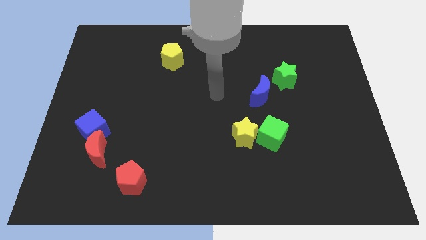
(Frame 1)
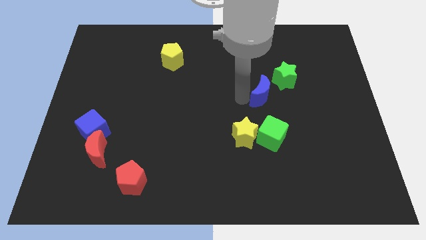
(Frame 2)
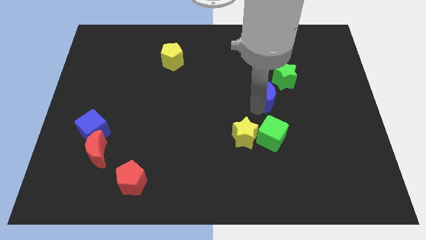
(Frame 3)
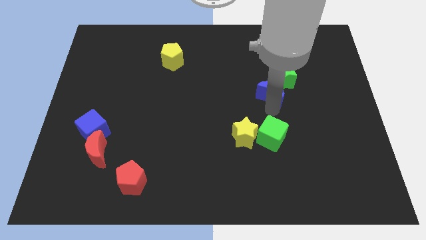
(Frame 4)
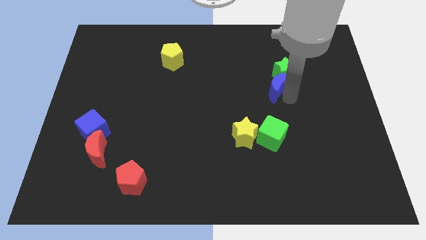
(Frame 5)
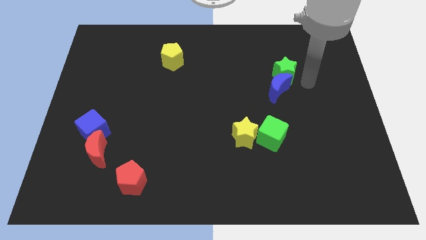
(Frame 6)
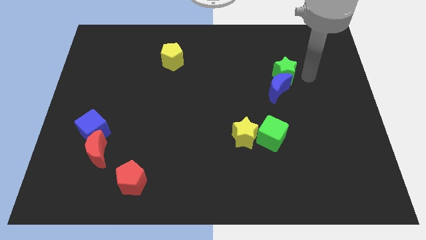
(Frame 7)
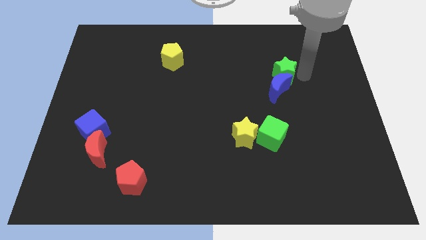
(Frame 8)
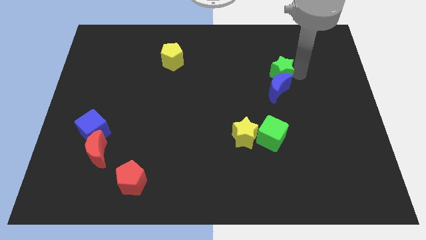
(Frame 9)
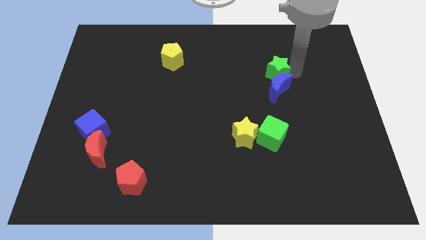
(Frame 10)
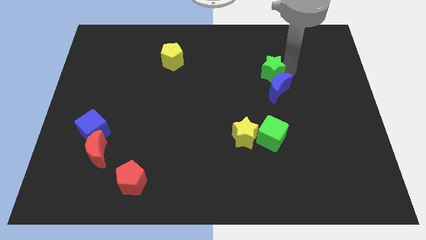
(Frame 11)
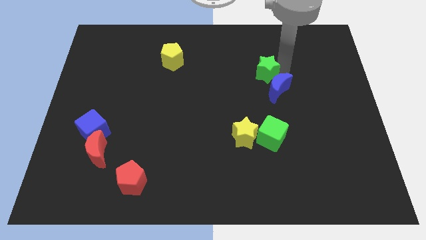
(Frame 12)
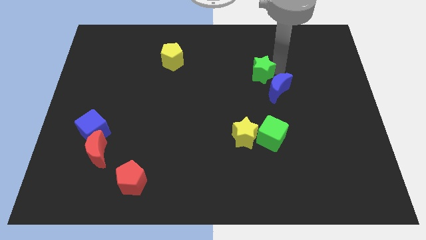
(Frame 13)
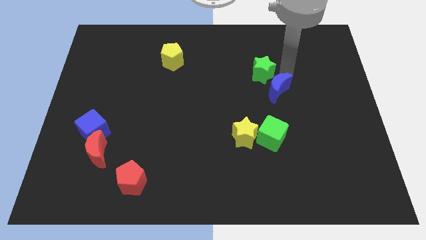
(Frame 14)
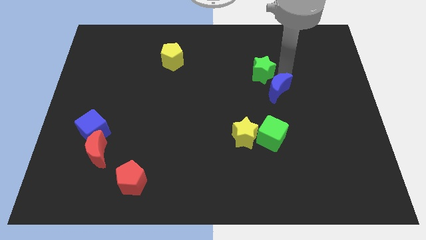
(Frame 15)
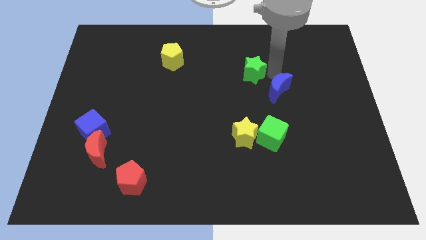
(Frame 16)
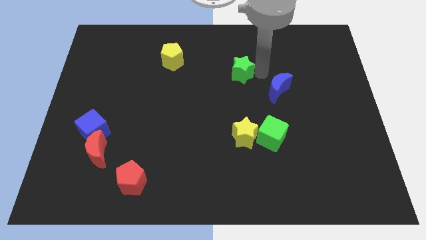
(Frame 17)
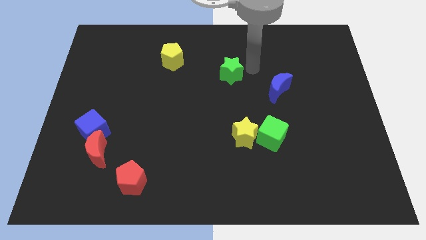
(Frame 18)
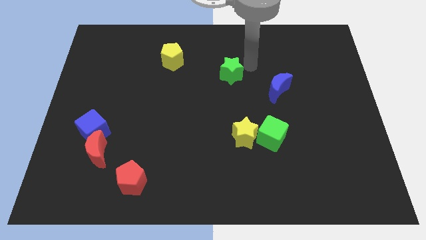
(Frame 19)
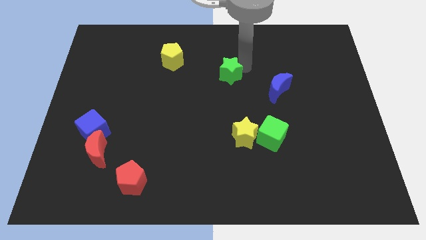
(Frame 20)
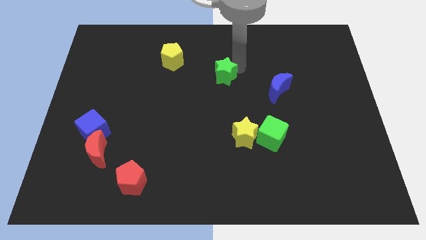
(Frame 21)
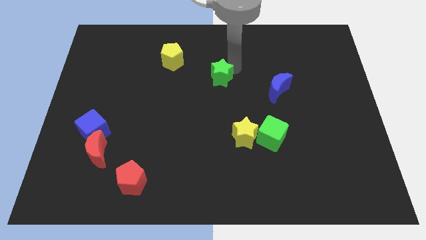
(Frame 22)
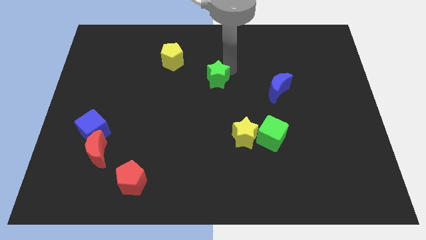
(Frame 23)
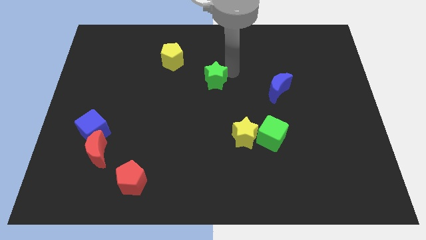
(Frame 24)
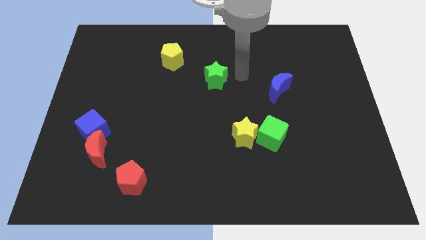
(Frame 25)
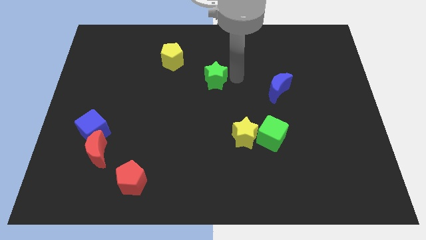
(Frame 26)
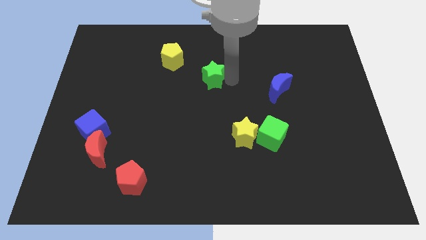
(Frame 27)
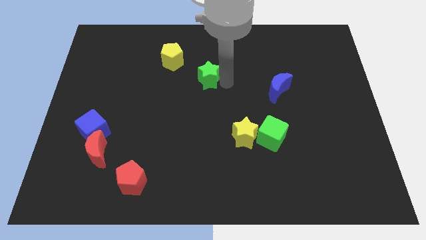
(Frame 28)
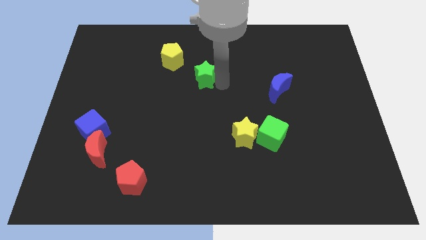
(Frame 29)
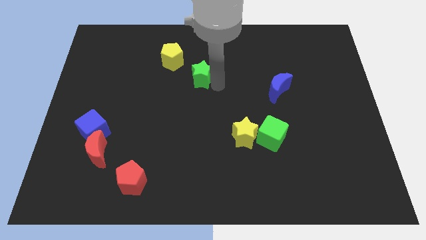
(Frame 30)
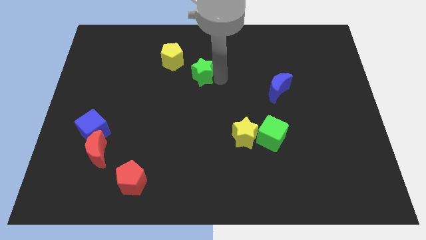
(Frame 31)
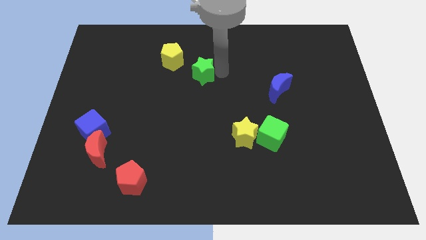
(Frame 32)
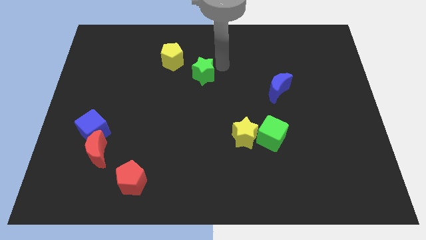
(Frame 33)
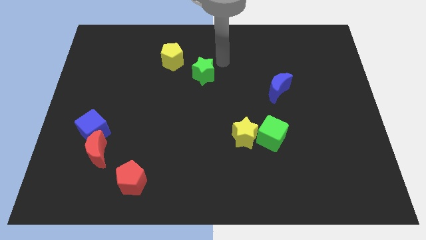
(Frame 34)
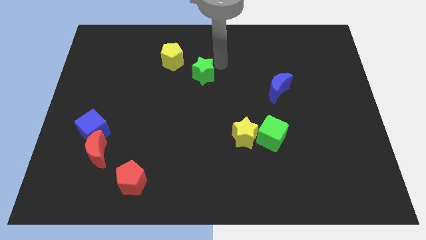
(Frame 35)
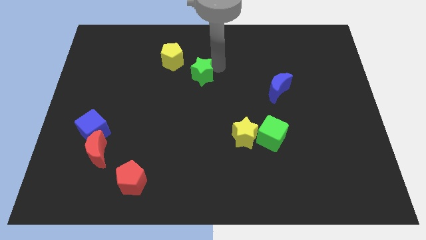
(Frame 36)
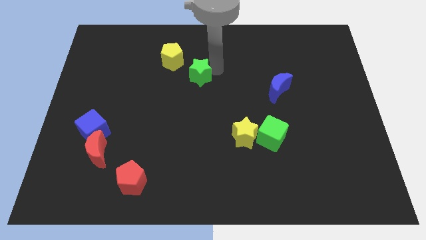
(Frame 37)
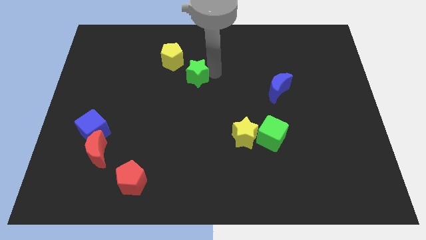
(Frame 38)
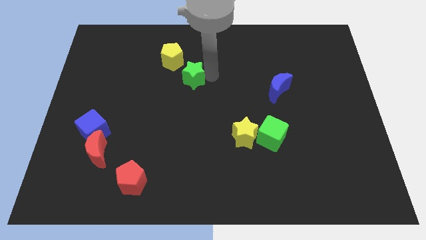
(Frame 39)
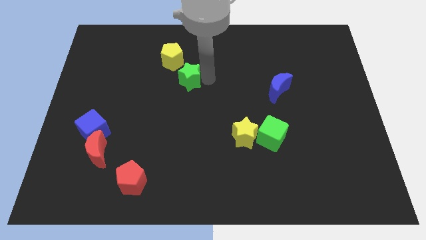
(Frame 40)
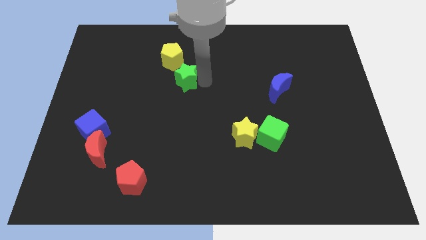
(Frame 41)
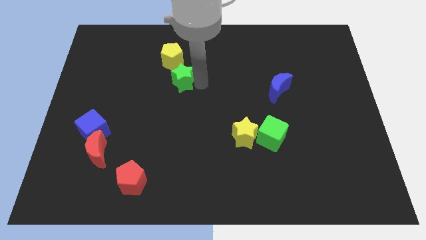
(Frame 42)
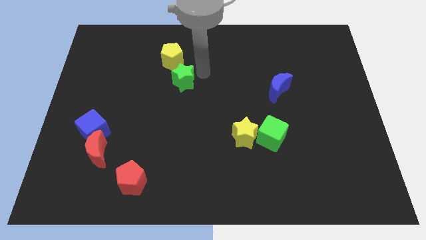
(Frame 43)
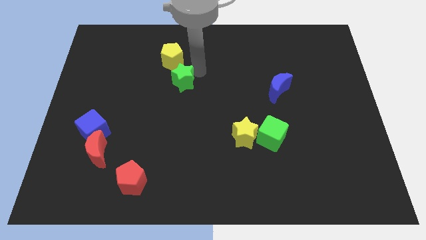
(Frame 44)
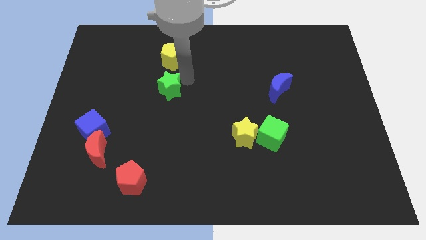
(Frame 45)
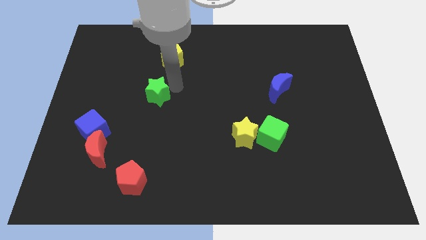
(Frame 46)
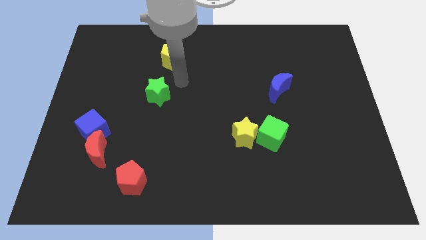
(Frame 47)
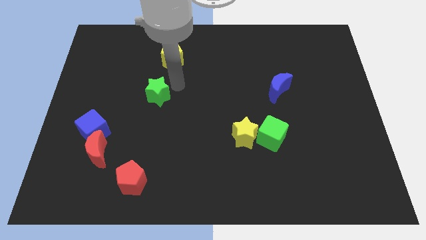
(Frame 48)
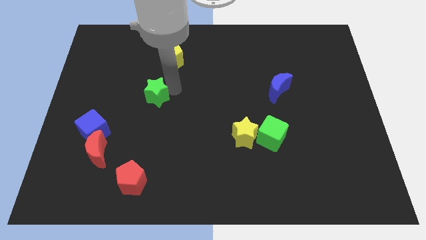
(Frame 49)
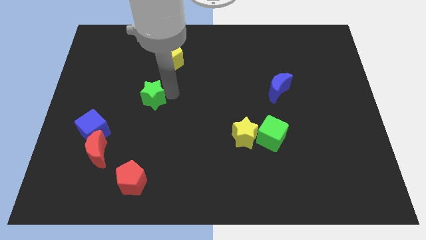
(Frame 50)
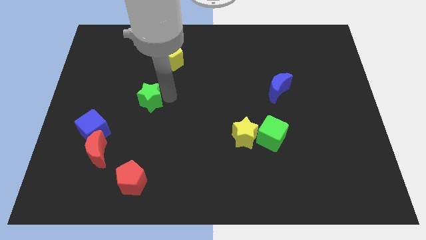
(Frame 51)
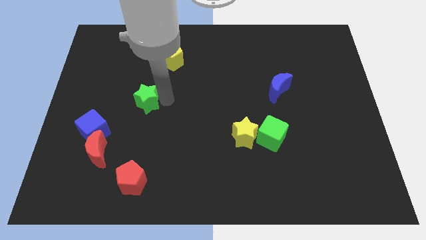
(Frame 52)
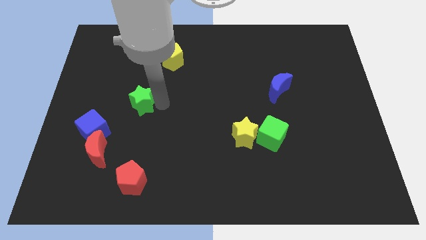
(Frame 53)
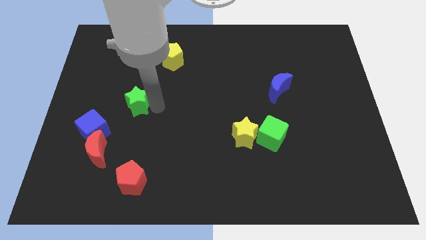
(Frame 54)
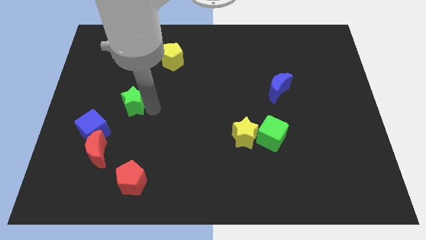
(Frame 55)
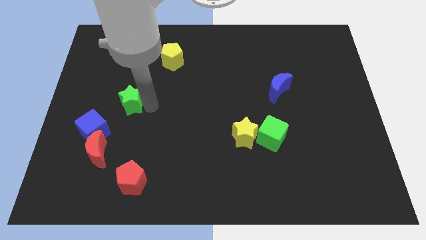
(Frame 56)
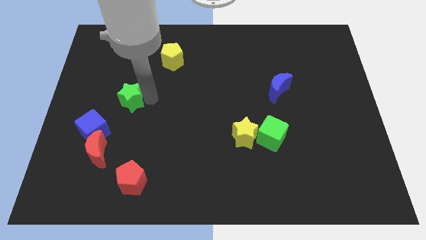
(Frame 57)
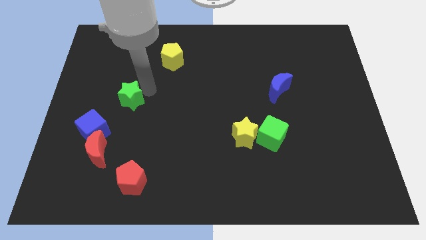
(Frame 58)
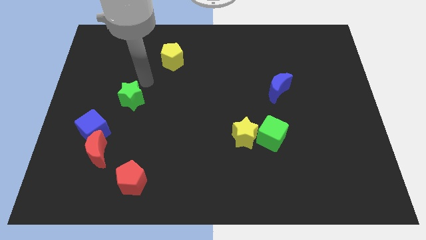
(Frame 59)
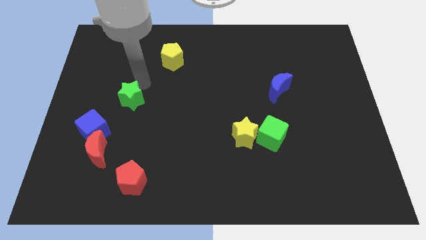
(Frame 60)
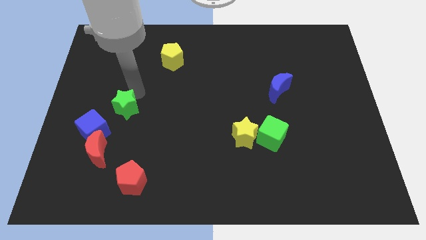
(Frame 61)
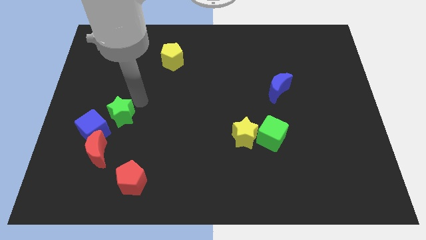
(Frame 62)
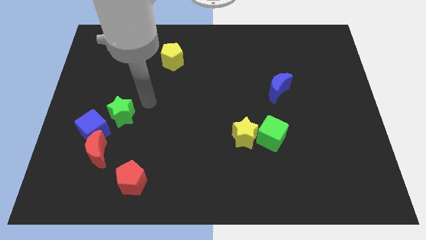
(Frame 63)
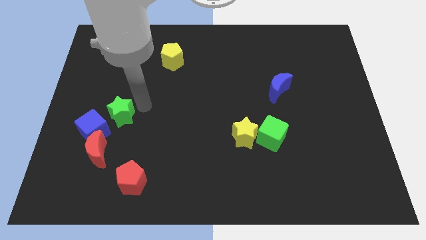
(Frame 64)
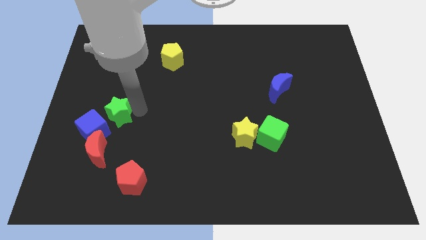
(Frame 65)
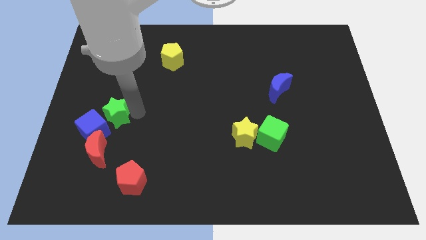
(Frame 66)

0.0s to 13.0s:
put the green star close to the blue cube
